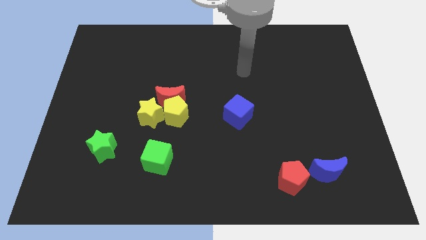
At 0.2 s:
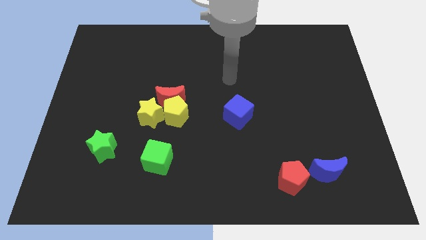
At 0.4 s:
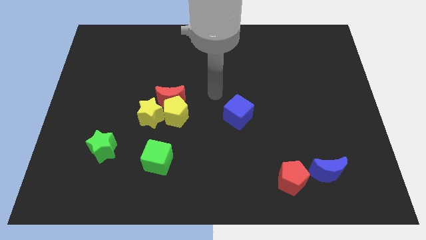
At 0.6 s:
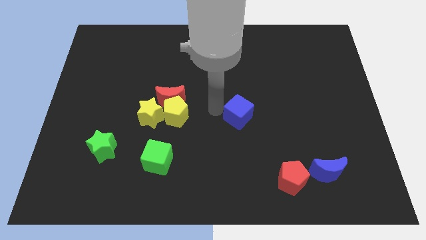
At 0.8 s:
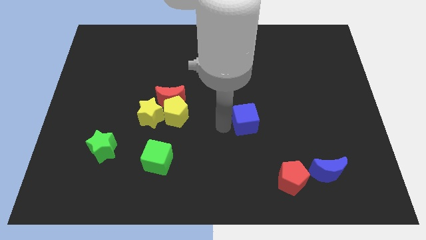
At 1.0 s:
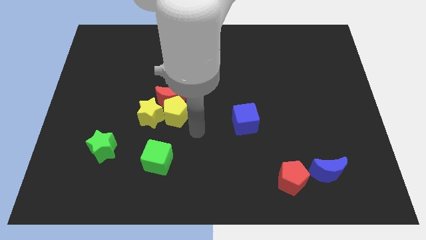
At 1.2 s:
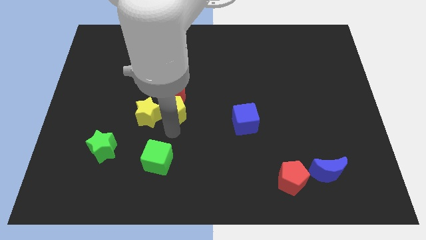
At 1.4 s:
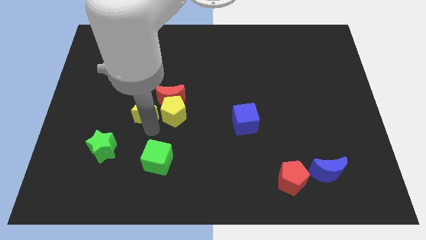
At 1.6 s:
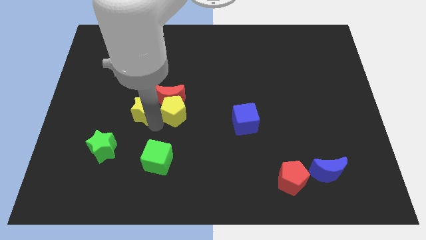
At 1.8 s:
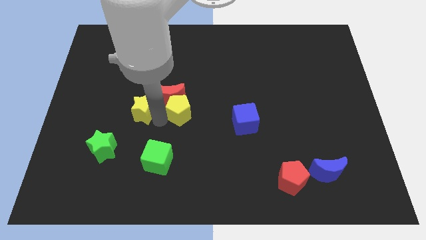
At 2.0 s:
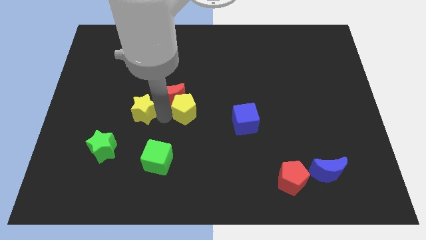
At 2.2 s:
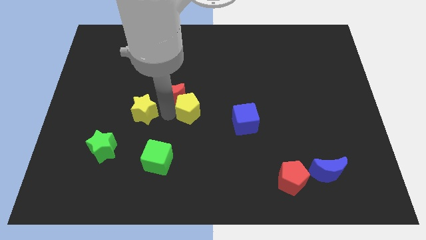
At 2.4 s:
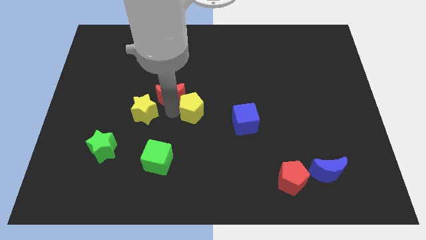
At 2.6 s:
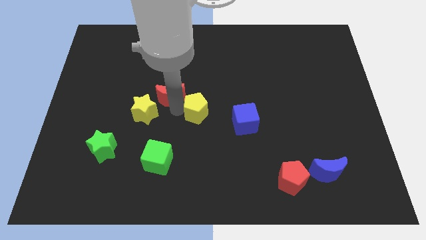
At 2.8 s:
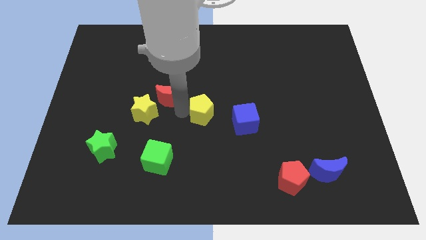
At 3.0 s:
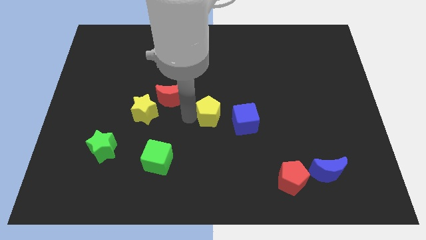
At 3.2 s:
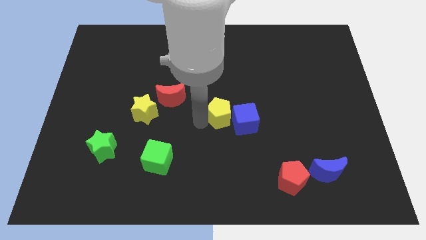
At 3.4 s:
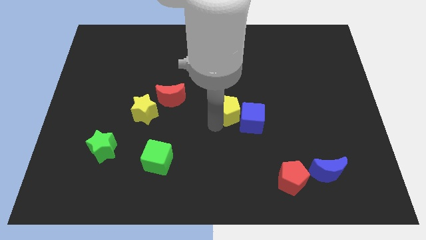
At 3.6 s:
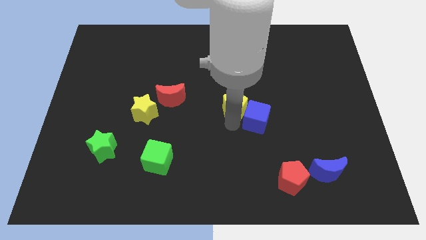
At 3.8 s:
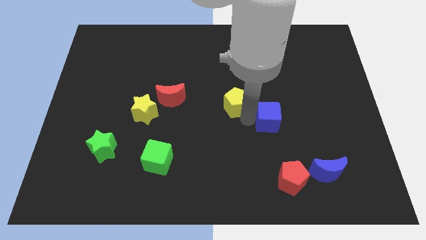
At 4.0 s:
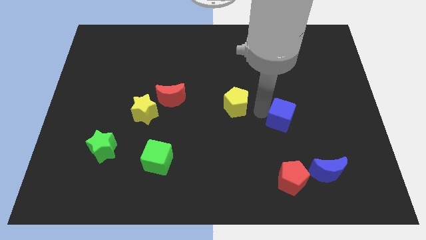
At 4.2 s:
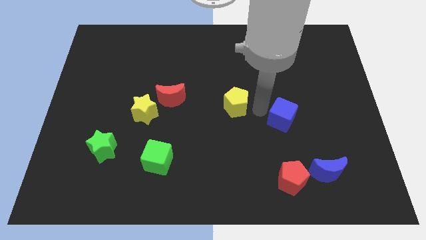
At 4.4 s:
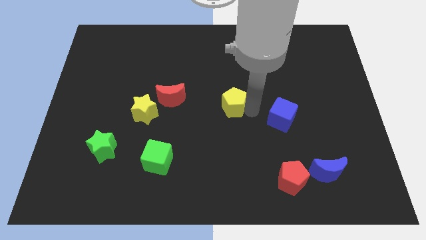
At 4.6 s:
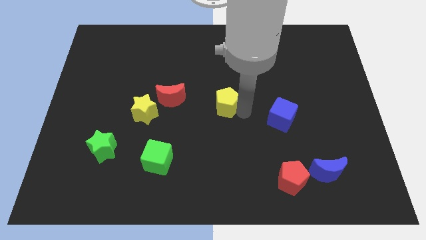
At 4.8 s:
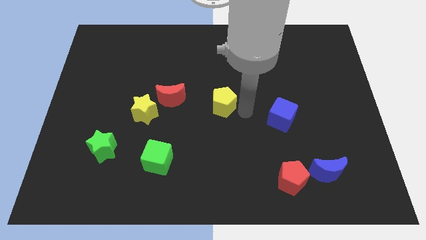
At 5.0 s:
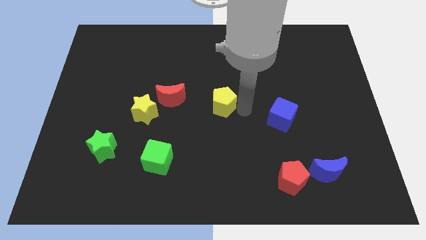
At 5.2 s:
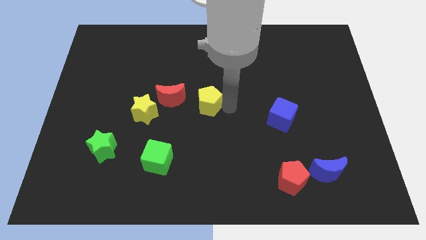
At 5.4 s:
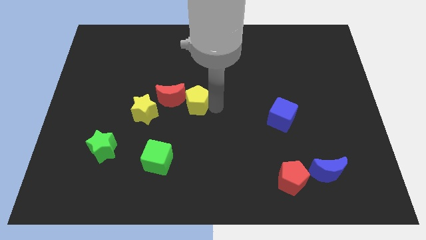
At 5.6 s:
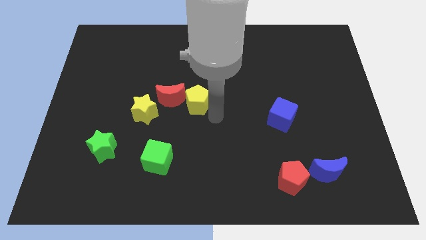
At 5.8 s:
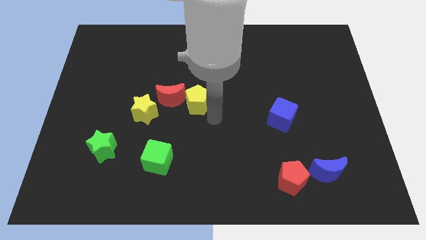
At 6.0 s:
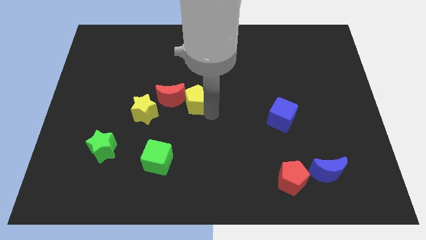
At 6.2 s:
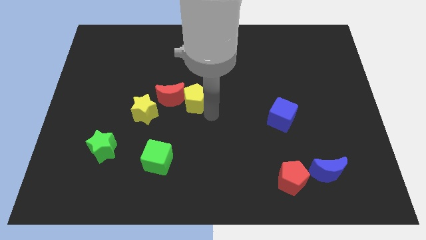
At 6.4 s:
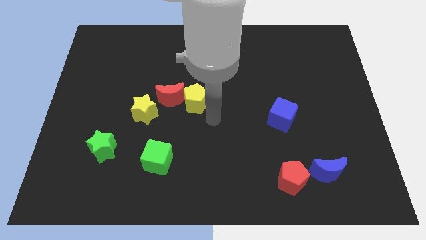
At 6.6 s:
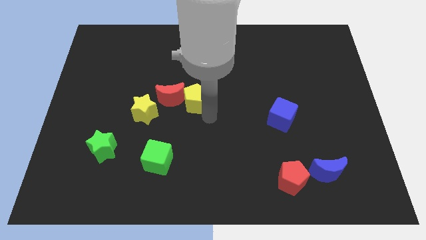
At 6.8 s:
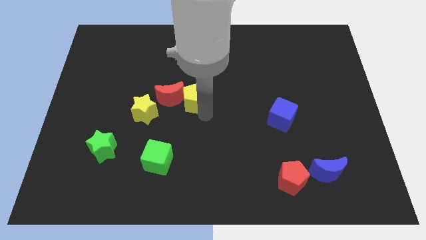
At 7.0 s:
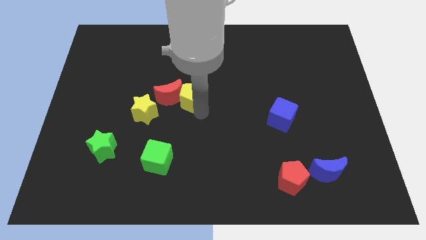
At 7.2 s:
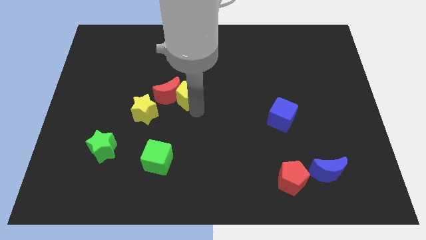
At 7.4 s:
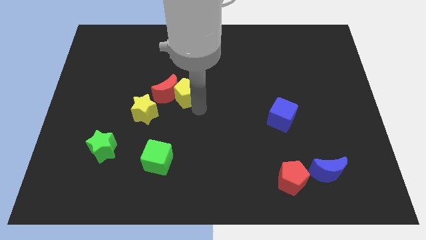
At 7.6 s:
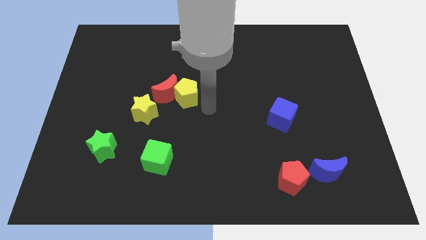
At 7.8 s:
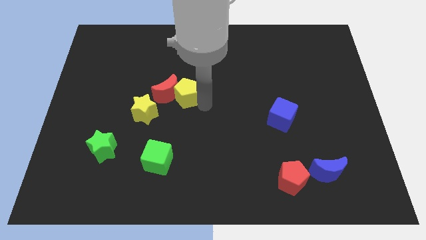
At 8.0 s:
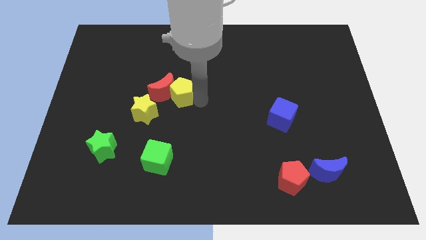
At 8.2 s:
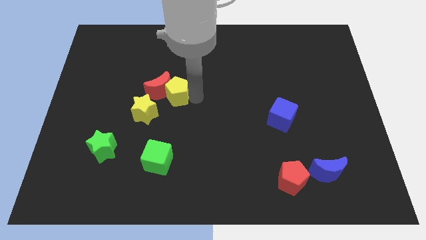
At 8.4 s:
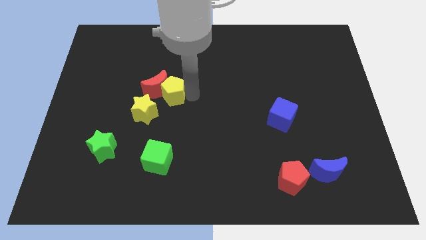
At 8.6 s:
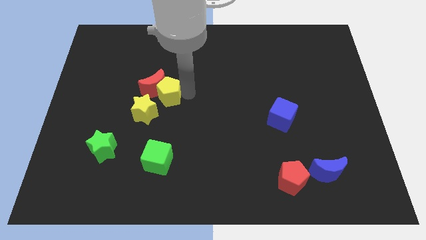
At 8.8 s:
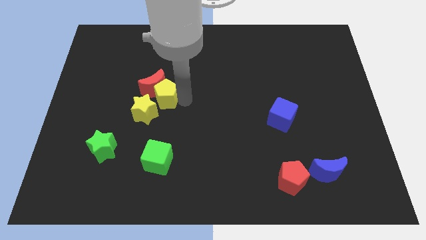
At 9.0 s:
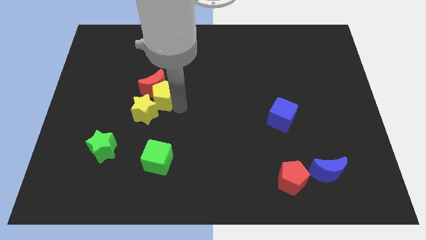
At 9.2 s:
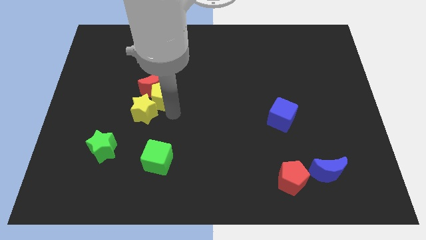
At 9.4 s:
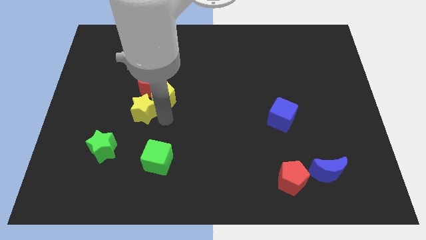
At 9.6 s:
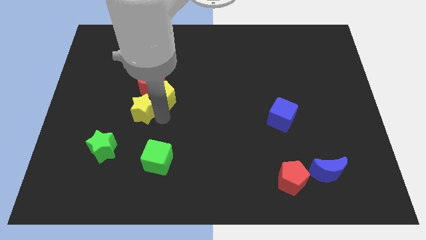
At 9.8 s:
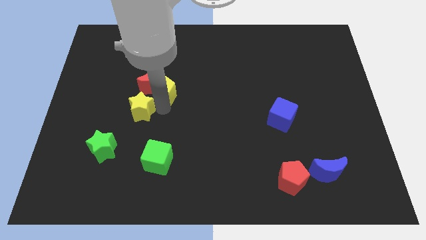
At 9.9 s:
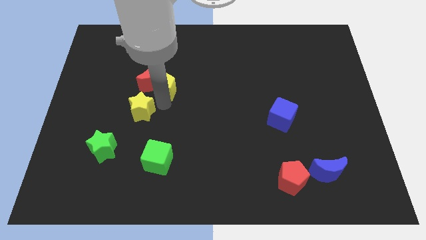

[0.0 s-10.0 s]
slightly move the yellow pentagon up and then to the left

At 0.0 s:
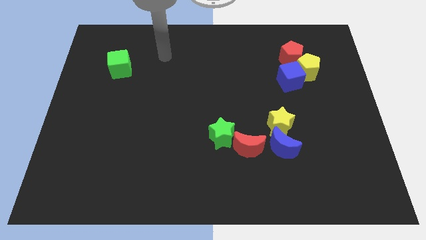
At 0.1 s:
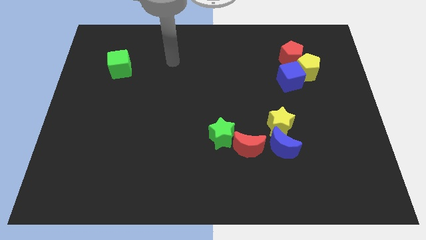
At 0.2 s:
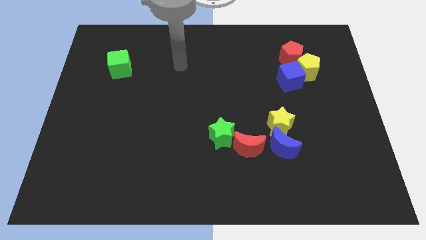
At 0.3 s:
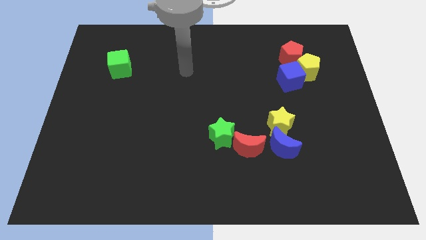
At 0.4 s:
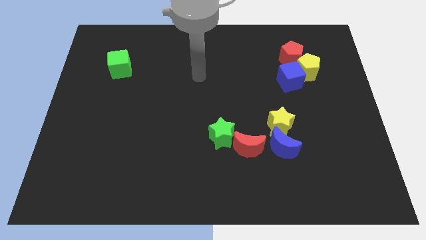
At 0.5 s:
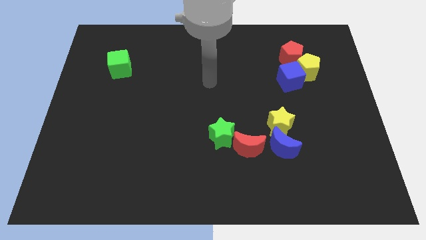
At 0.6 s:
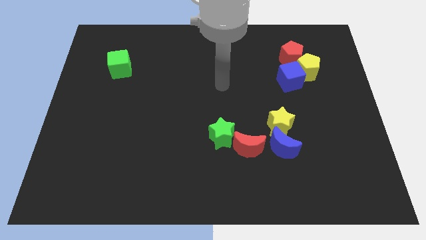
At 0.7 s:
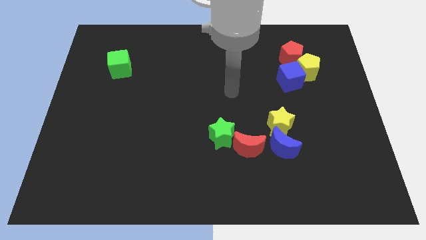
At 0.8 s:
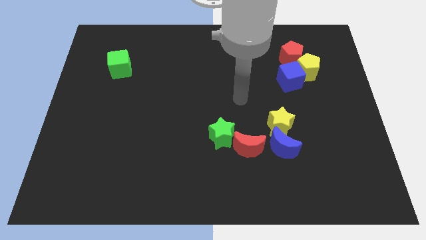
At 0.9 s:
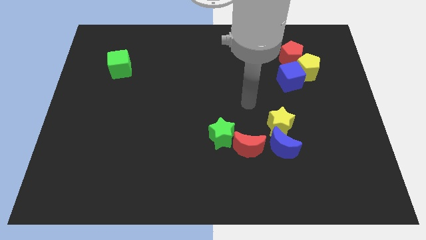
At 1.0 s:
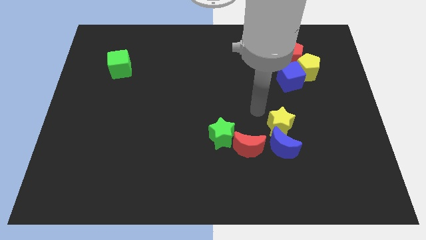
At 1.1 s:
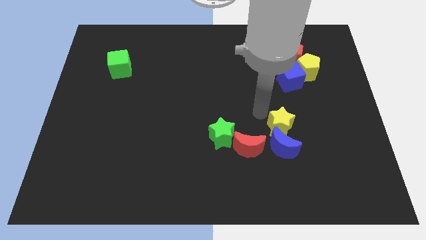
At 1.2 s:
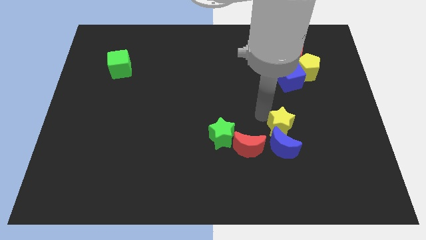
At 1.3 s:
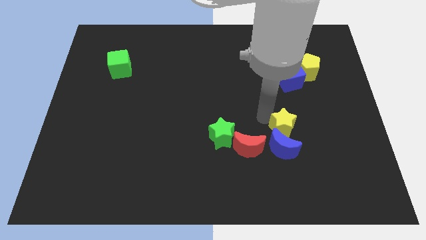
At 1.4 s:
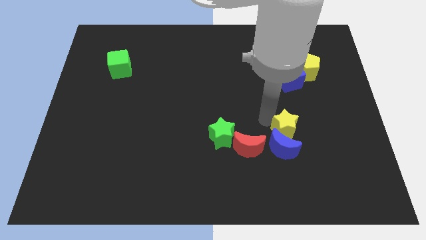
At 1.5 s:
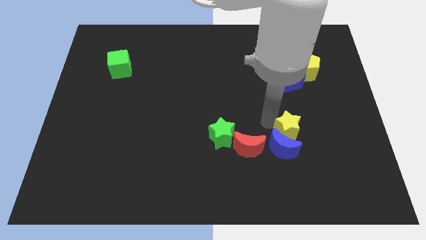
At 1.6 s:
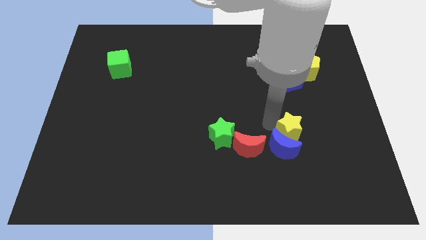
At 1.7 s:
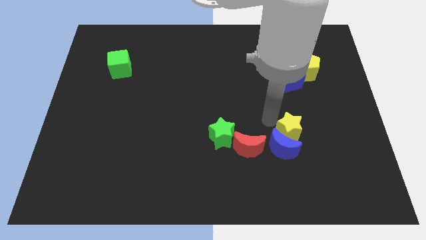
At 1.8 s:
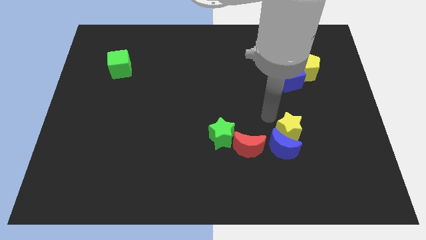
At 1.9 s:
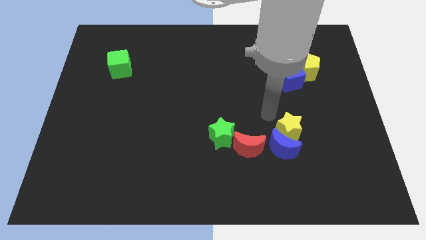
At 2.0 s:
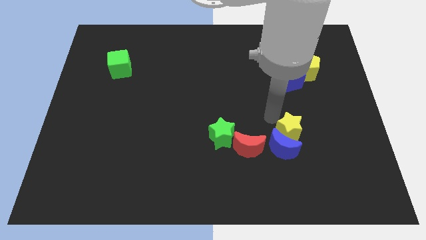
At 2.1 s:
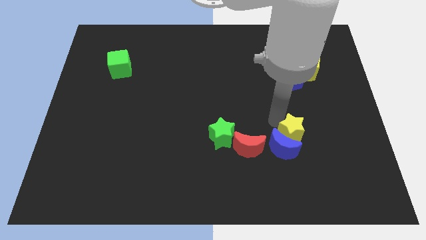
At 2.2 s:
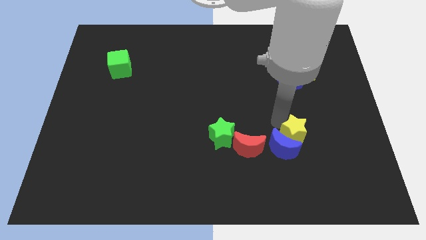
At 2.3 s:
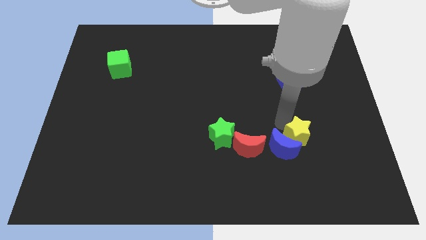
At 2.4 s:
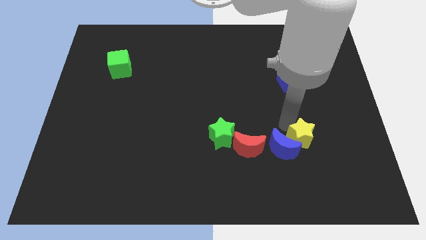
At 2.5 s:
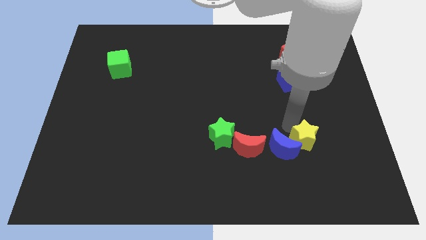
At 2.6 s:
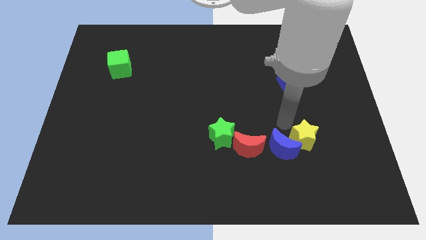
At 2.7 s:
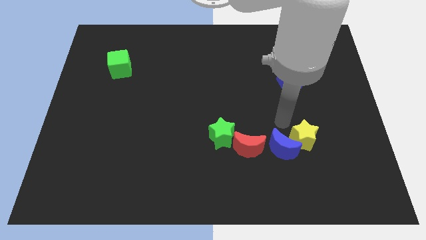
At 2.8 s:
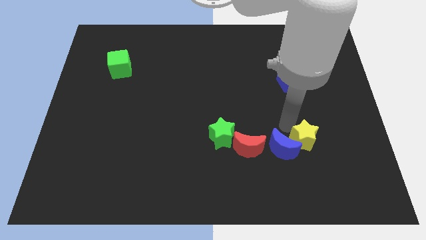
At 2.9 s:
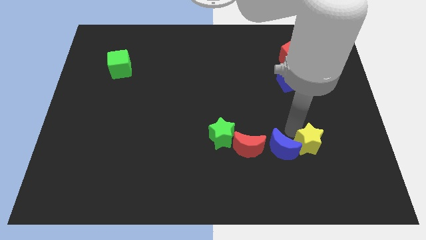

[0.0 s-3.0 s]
slide the yellow star somewhat down and then to the right
